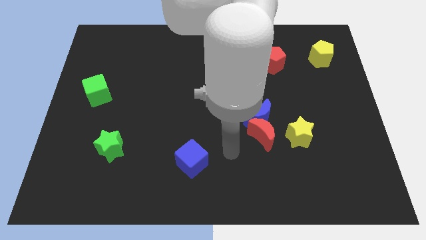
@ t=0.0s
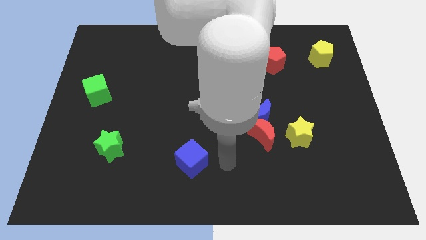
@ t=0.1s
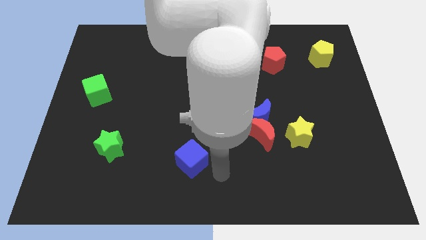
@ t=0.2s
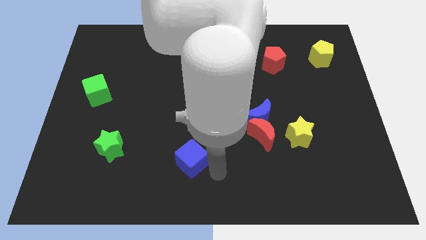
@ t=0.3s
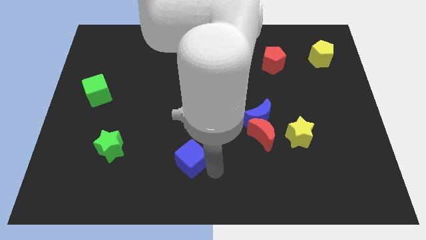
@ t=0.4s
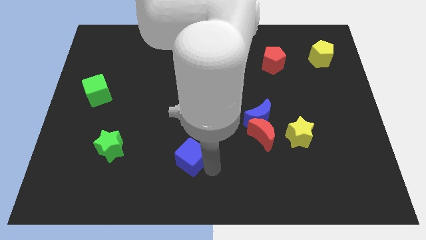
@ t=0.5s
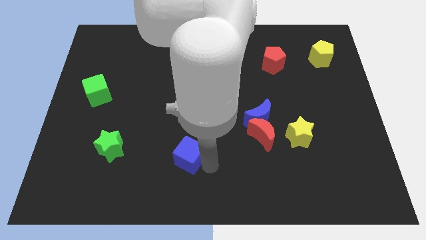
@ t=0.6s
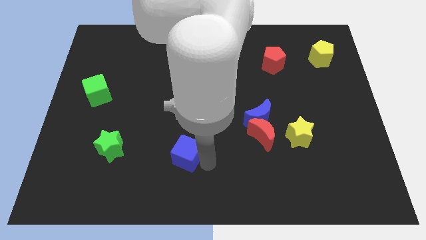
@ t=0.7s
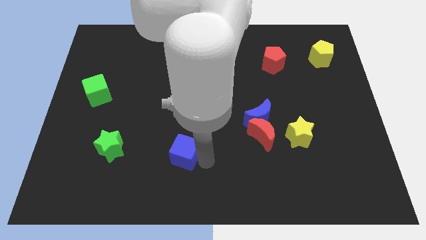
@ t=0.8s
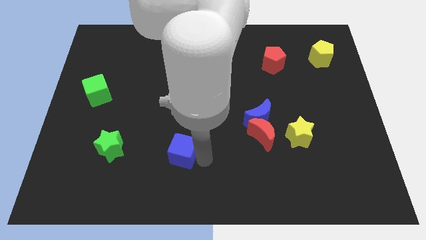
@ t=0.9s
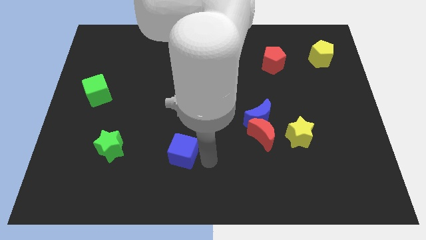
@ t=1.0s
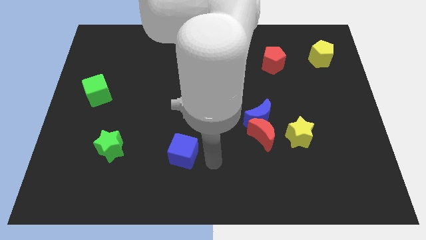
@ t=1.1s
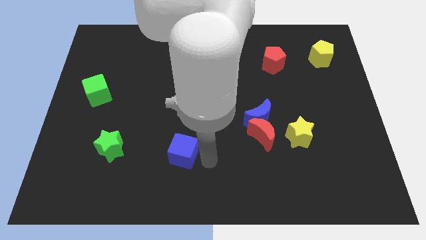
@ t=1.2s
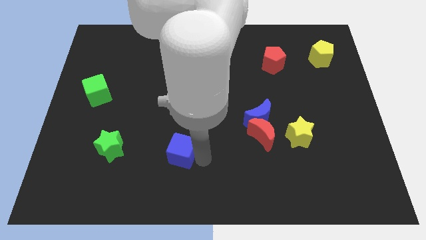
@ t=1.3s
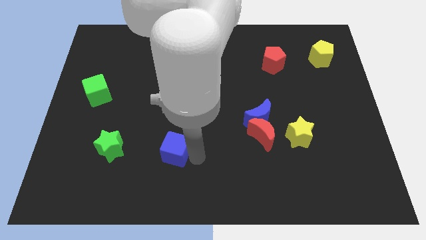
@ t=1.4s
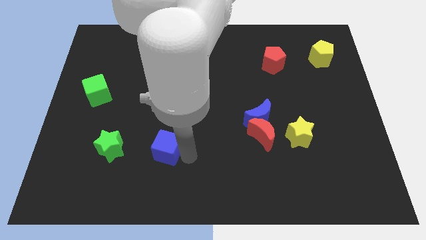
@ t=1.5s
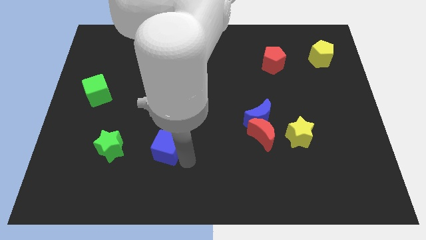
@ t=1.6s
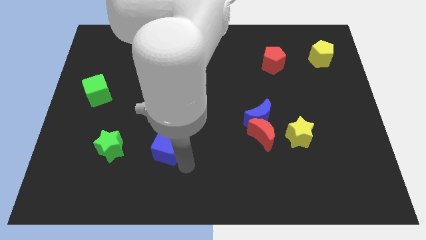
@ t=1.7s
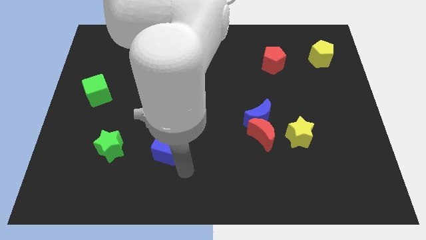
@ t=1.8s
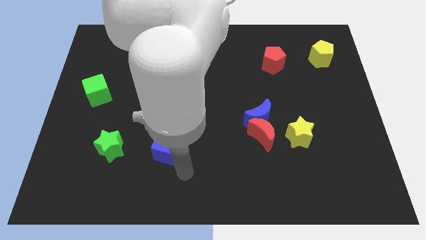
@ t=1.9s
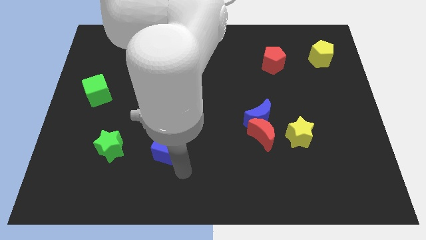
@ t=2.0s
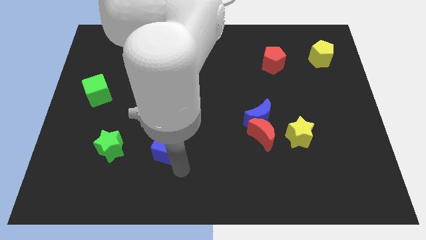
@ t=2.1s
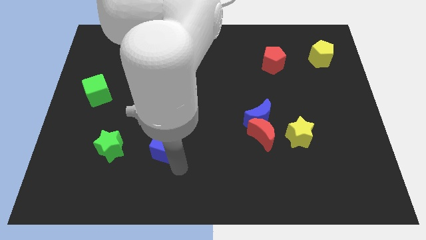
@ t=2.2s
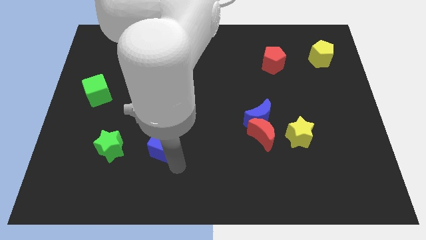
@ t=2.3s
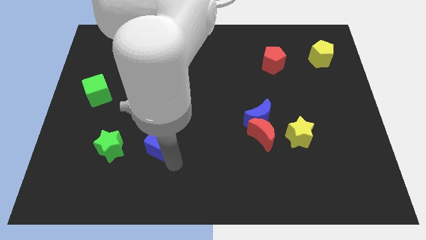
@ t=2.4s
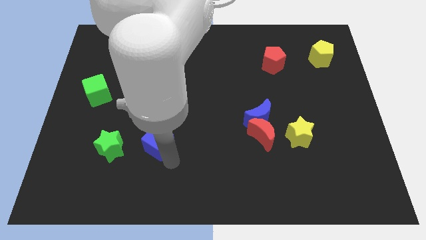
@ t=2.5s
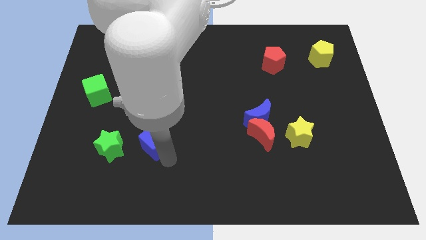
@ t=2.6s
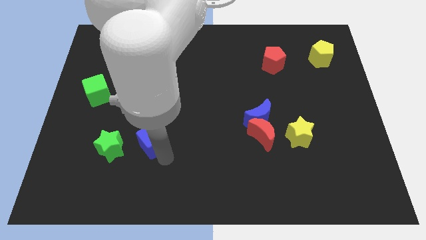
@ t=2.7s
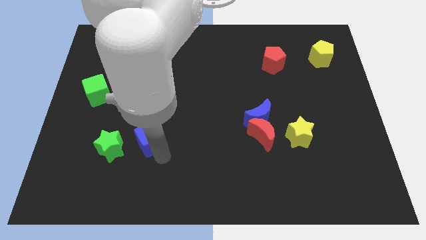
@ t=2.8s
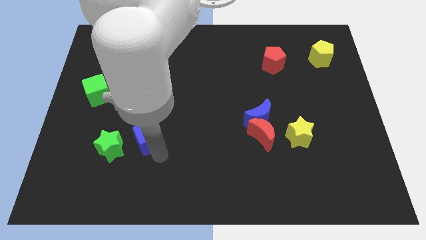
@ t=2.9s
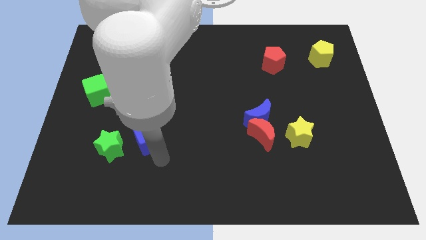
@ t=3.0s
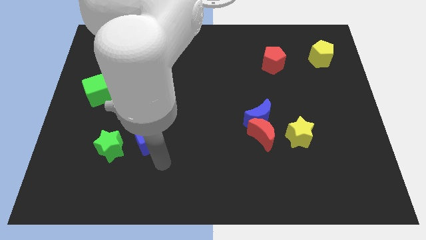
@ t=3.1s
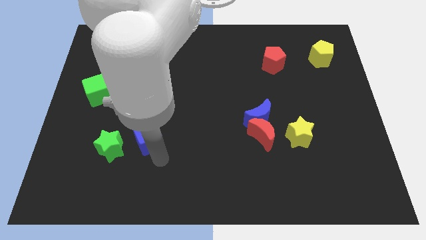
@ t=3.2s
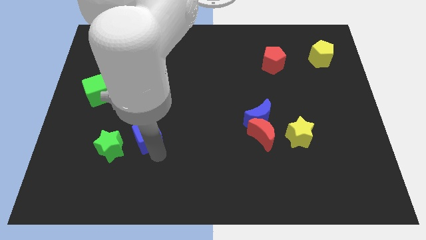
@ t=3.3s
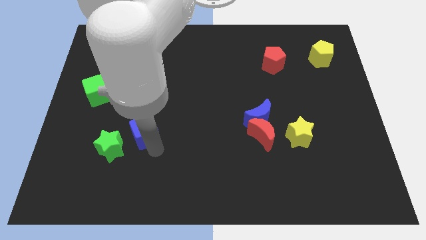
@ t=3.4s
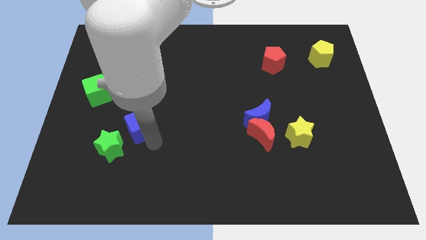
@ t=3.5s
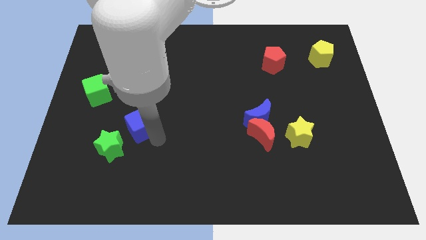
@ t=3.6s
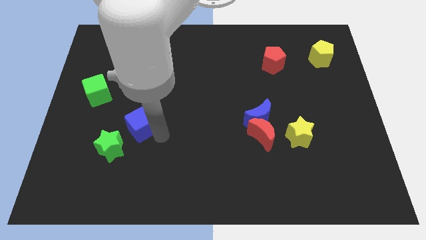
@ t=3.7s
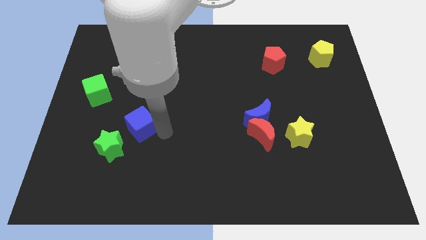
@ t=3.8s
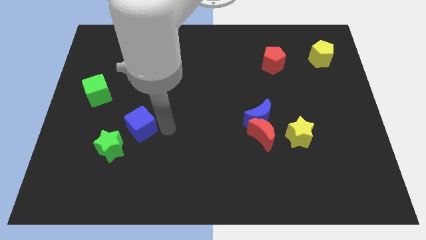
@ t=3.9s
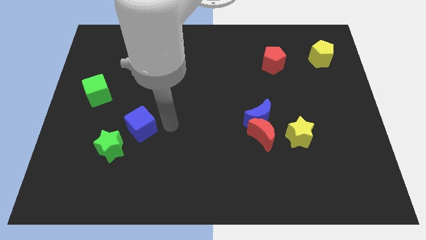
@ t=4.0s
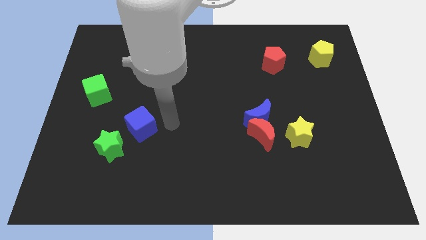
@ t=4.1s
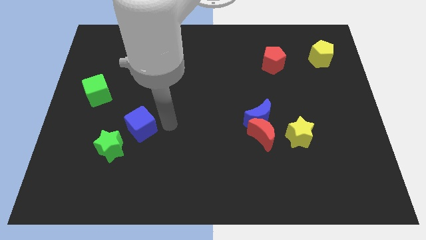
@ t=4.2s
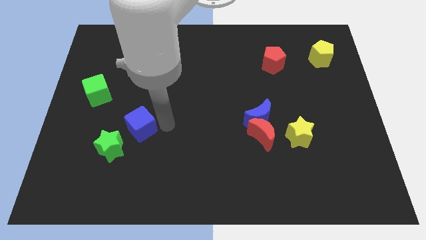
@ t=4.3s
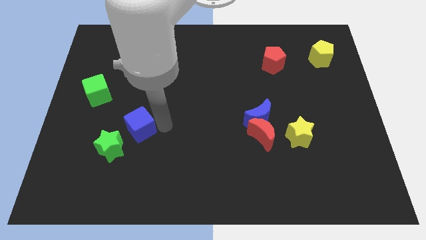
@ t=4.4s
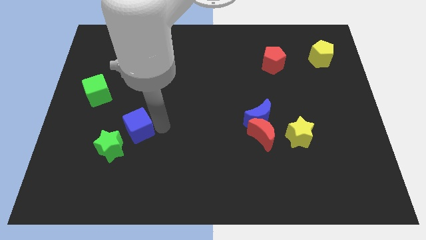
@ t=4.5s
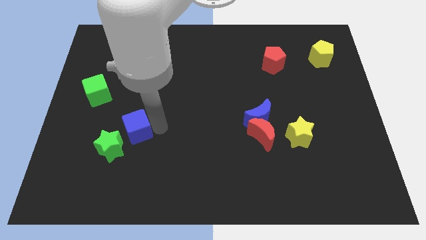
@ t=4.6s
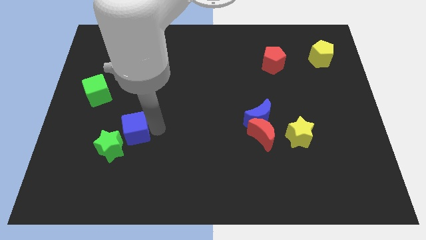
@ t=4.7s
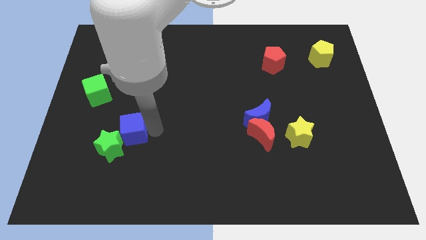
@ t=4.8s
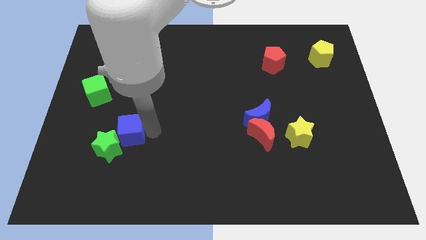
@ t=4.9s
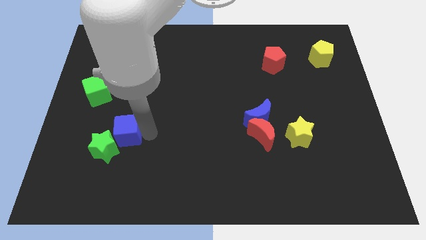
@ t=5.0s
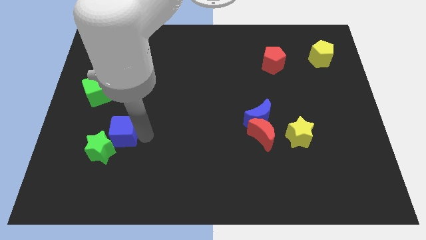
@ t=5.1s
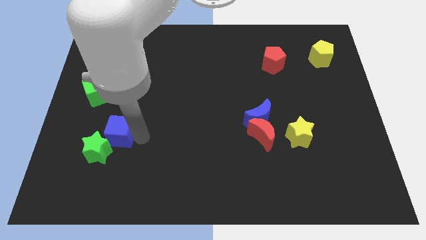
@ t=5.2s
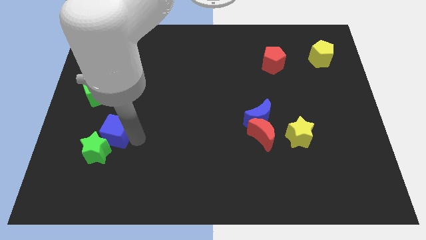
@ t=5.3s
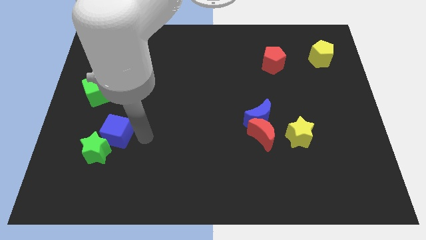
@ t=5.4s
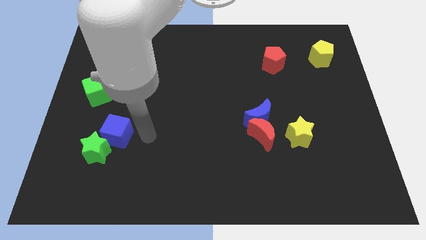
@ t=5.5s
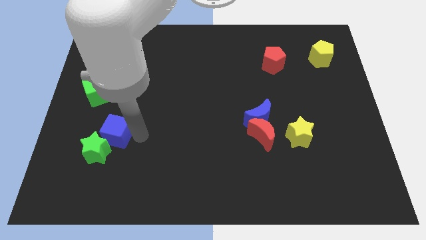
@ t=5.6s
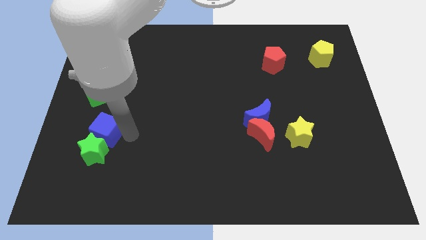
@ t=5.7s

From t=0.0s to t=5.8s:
slide the blue cube to the top left side of the green star
